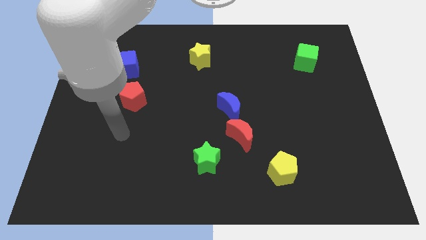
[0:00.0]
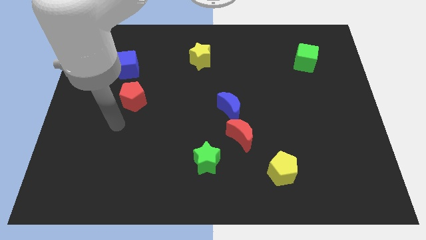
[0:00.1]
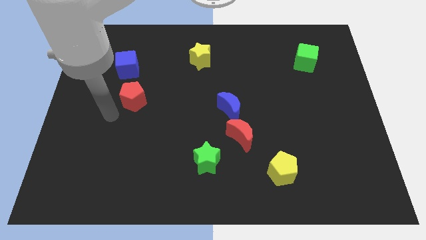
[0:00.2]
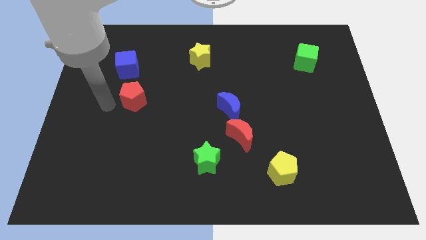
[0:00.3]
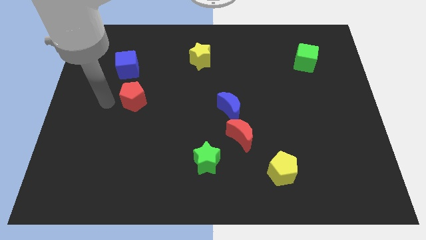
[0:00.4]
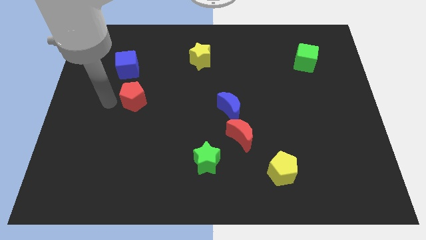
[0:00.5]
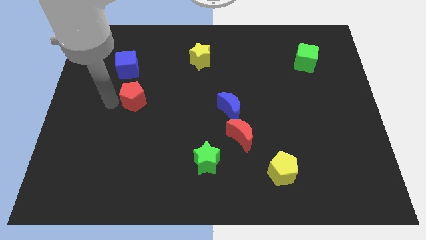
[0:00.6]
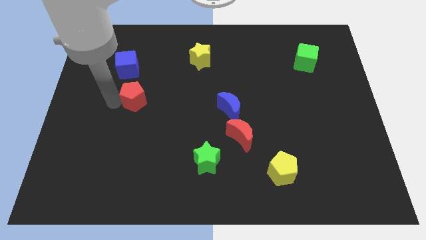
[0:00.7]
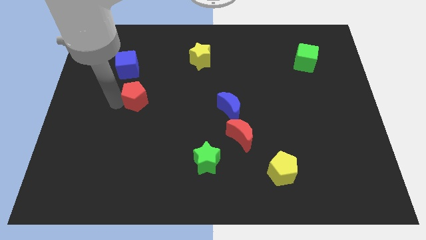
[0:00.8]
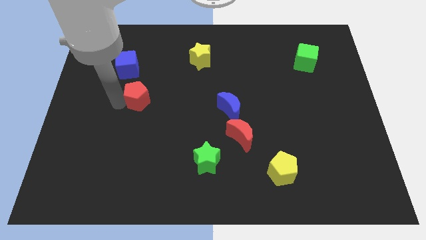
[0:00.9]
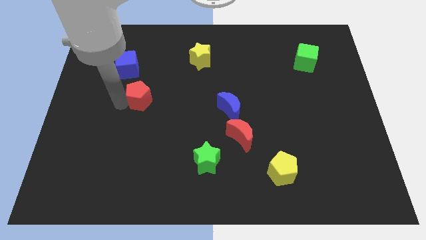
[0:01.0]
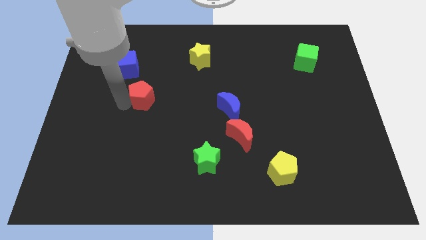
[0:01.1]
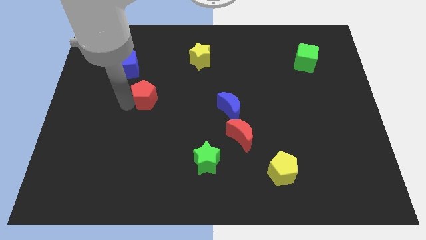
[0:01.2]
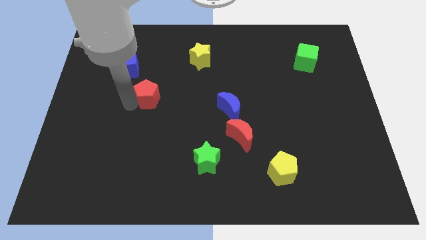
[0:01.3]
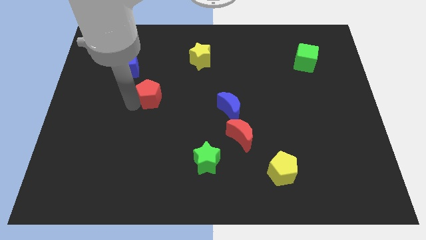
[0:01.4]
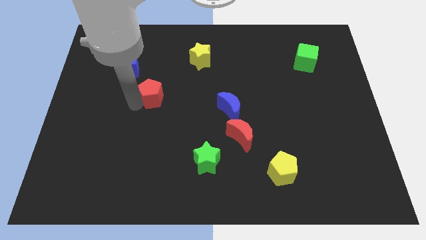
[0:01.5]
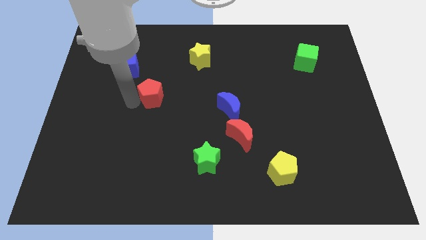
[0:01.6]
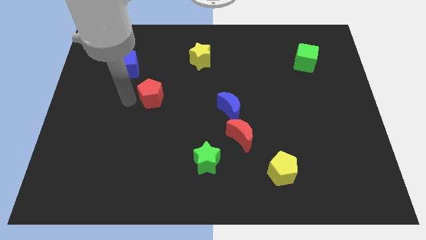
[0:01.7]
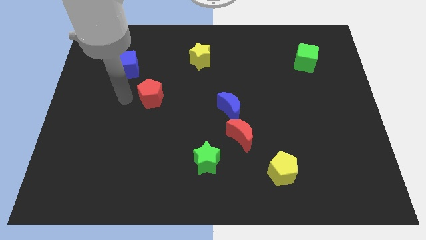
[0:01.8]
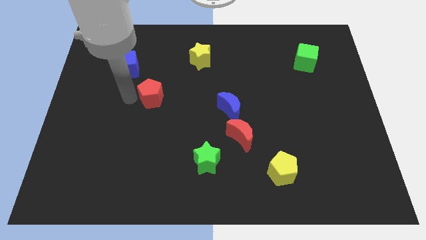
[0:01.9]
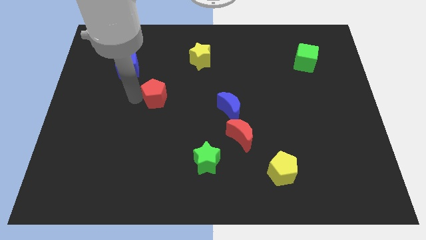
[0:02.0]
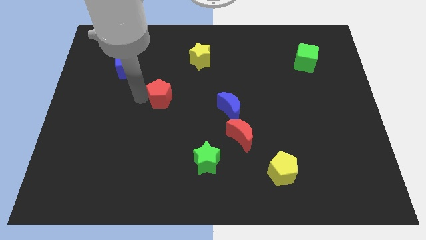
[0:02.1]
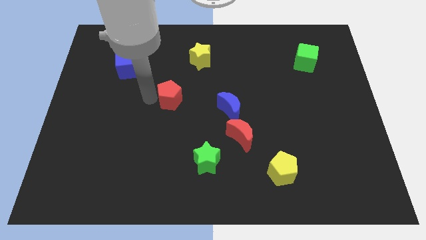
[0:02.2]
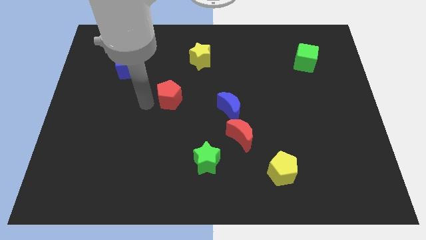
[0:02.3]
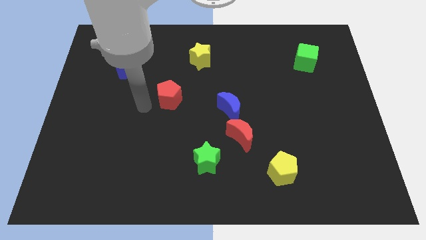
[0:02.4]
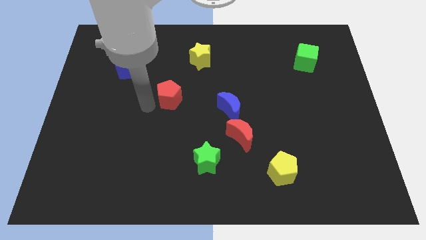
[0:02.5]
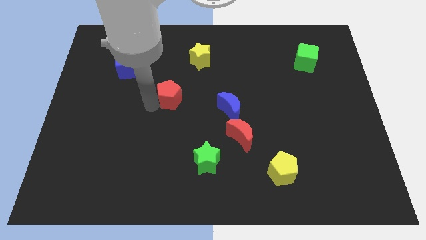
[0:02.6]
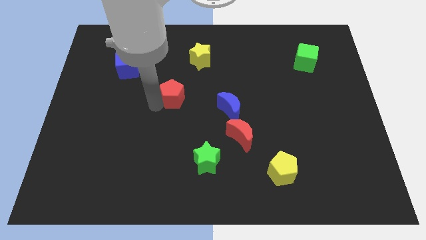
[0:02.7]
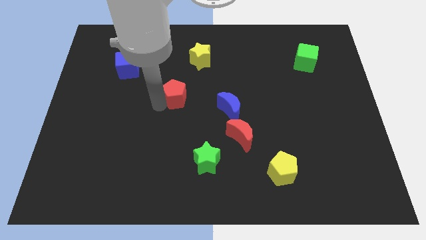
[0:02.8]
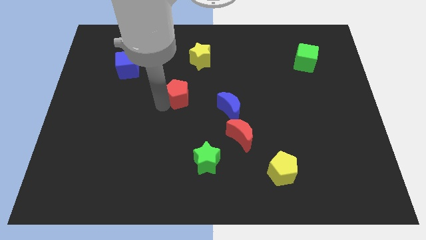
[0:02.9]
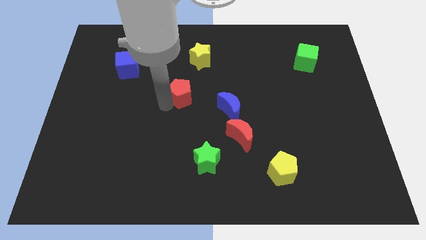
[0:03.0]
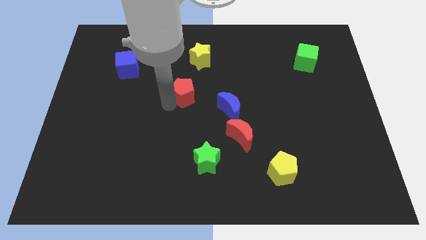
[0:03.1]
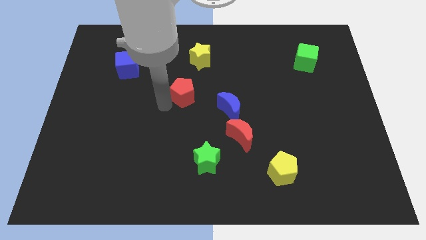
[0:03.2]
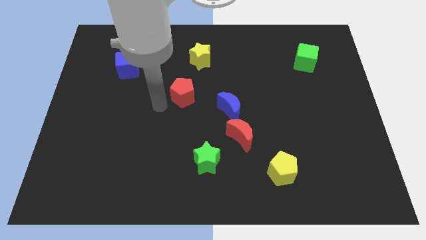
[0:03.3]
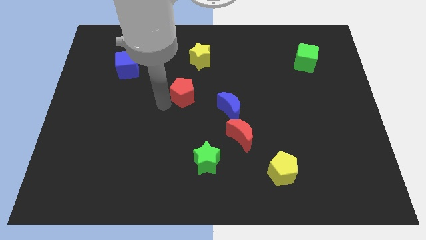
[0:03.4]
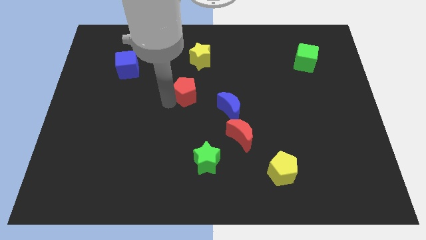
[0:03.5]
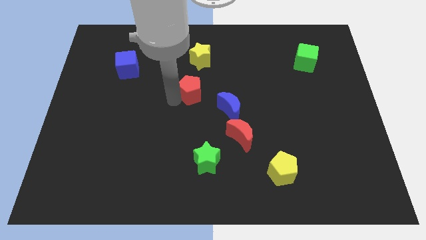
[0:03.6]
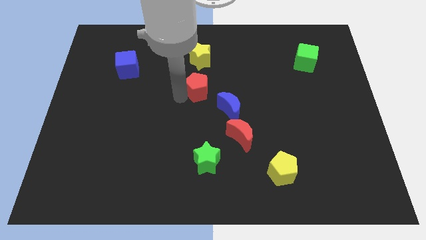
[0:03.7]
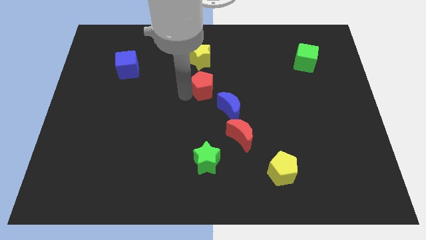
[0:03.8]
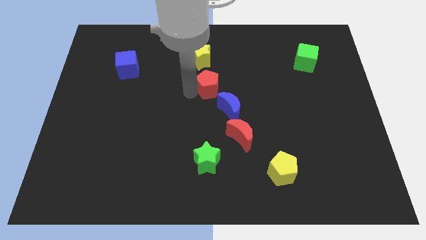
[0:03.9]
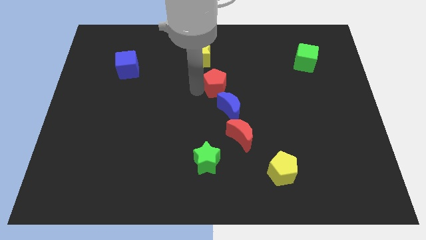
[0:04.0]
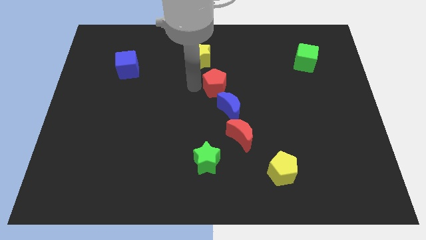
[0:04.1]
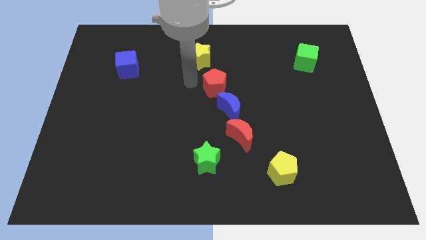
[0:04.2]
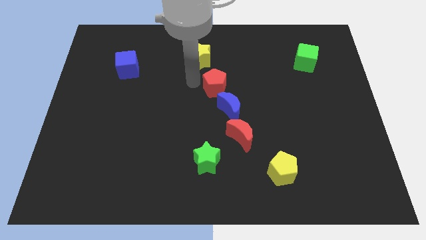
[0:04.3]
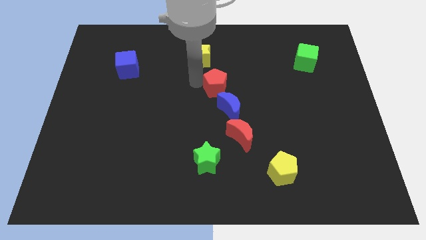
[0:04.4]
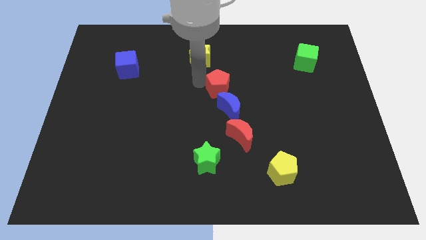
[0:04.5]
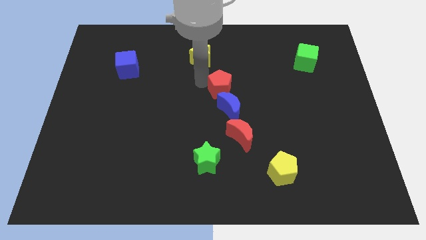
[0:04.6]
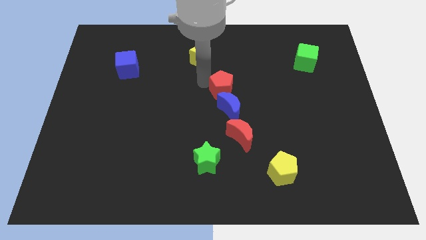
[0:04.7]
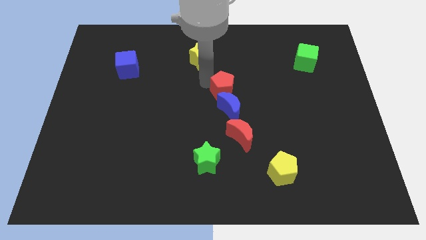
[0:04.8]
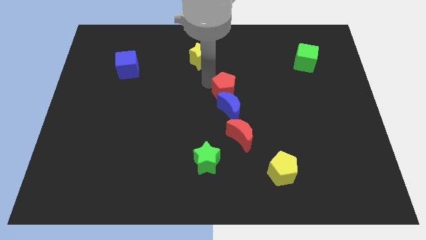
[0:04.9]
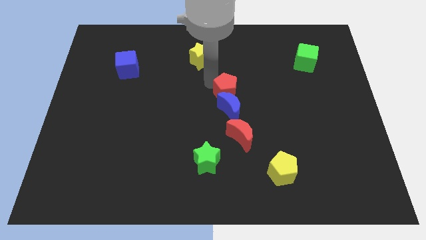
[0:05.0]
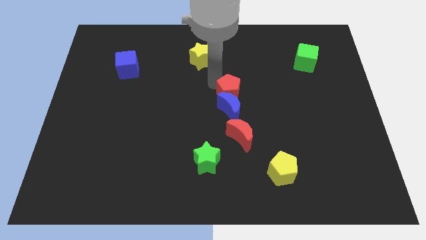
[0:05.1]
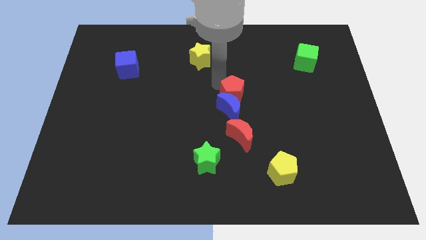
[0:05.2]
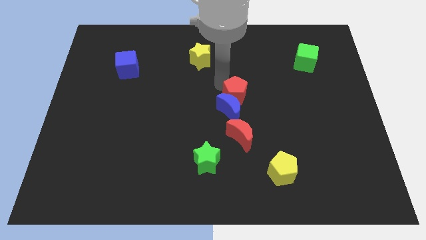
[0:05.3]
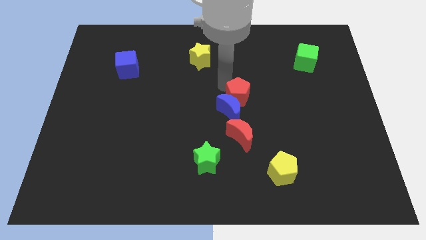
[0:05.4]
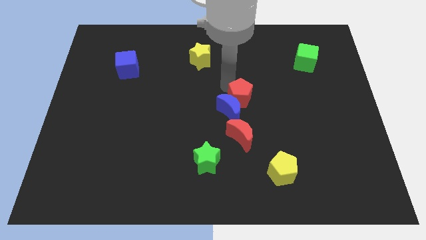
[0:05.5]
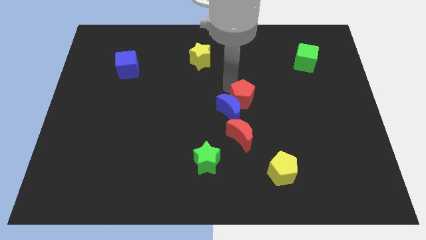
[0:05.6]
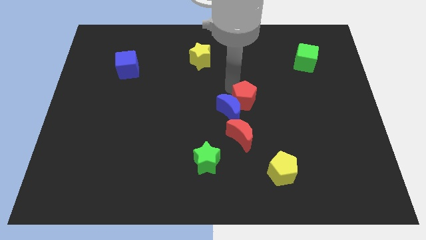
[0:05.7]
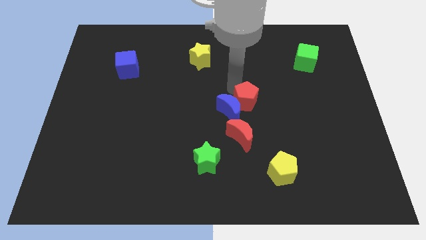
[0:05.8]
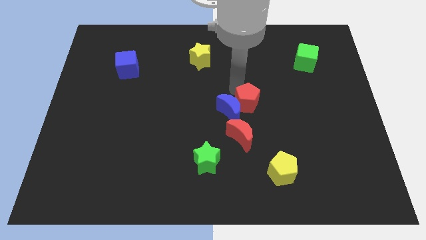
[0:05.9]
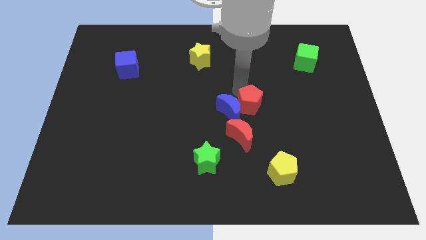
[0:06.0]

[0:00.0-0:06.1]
slide the red pentagon to the bottom right of the blue moon
